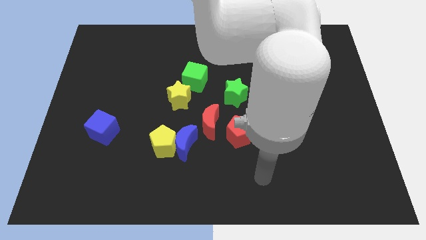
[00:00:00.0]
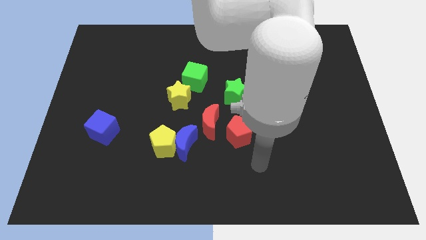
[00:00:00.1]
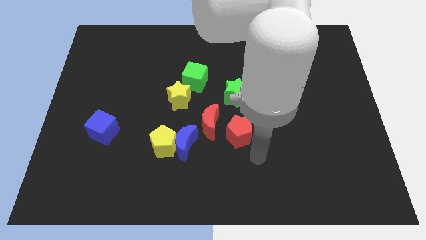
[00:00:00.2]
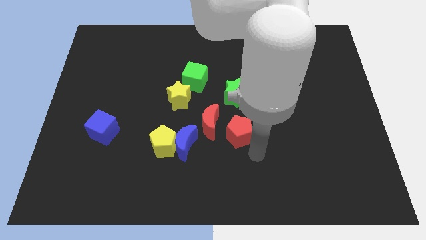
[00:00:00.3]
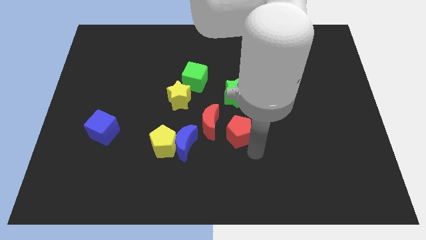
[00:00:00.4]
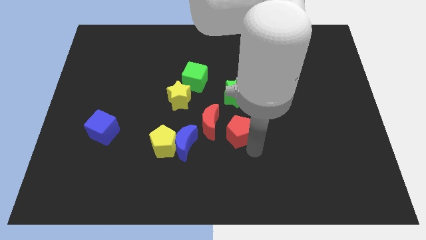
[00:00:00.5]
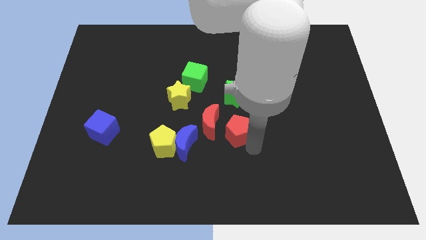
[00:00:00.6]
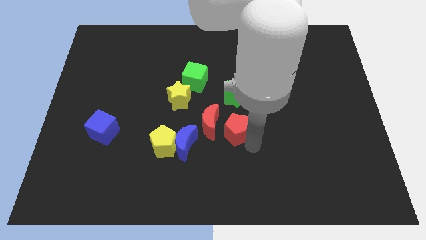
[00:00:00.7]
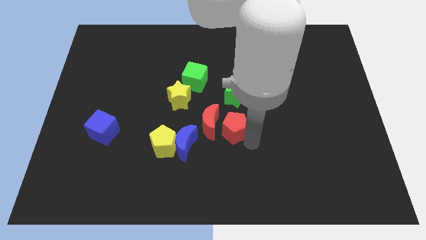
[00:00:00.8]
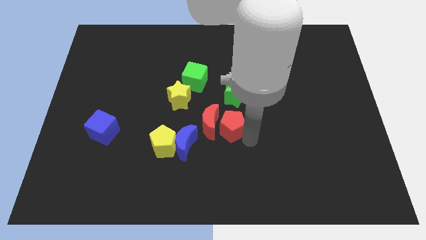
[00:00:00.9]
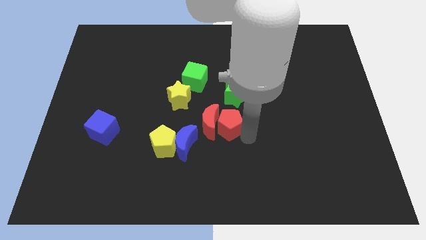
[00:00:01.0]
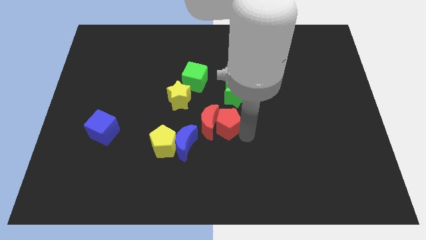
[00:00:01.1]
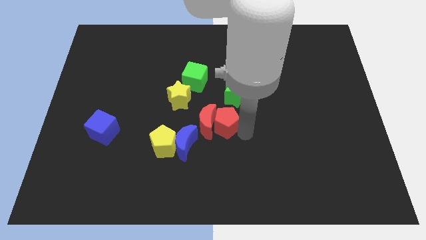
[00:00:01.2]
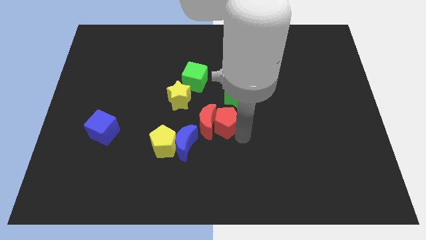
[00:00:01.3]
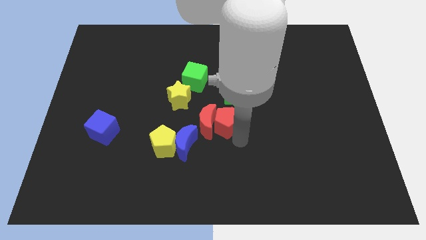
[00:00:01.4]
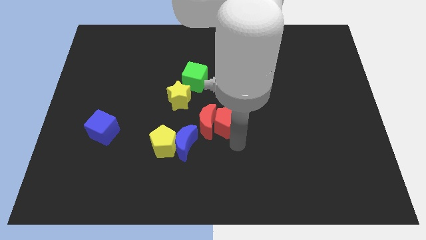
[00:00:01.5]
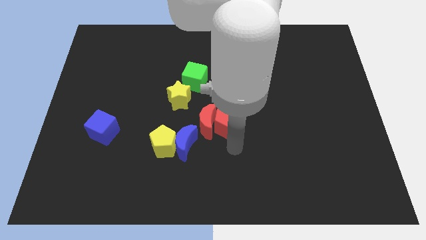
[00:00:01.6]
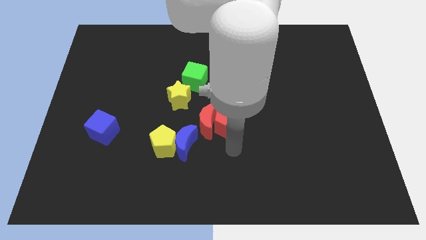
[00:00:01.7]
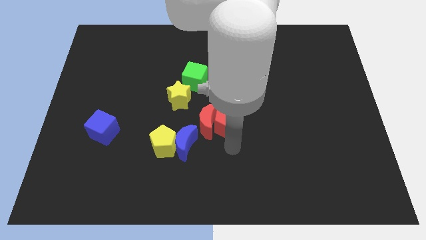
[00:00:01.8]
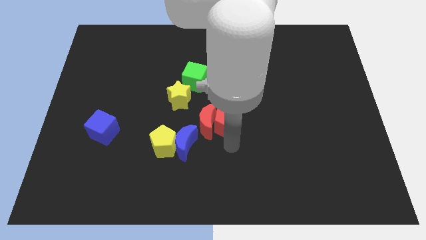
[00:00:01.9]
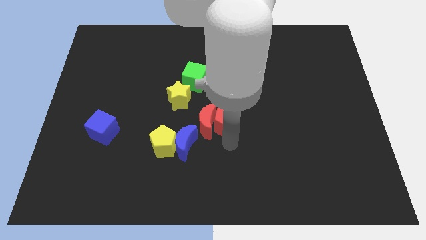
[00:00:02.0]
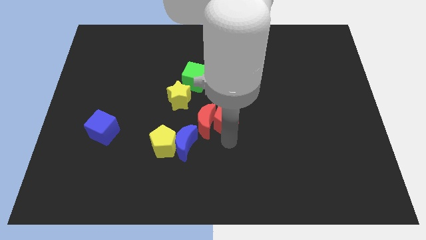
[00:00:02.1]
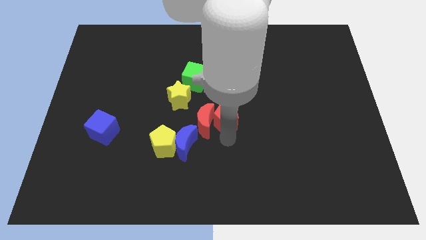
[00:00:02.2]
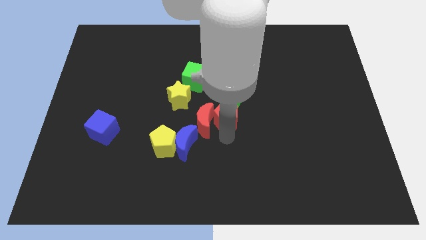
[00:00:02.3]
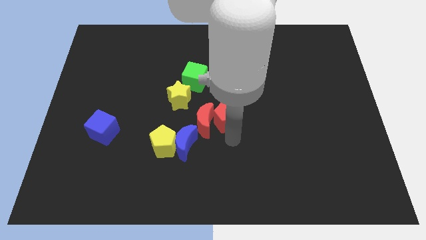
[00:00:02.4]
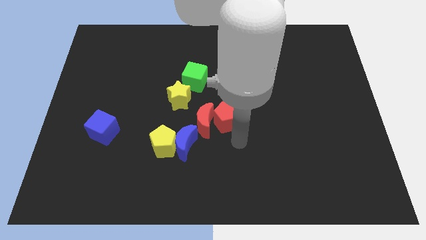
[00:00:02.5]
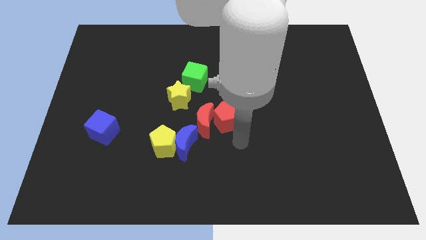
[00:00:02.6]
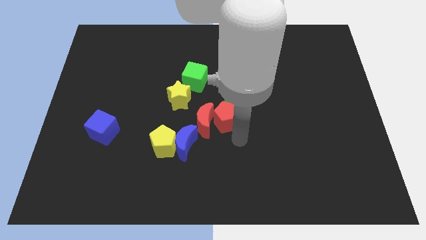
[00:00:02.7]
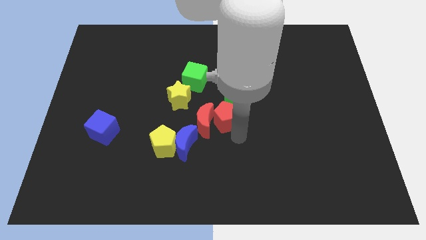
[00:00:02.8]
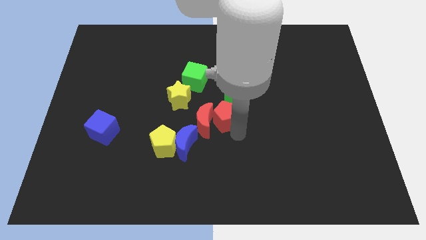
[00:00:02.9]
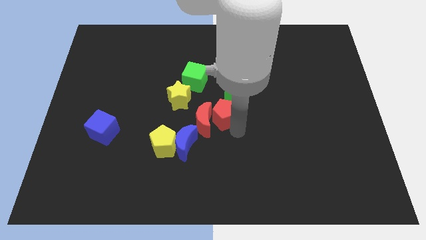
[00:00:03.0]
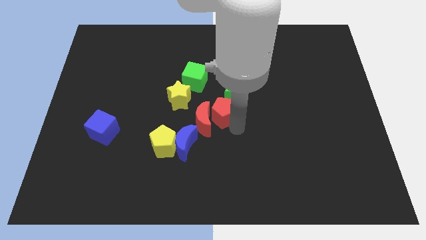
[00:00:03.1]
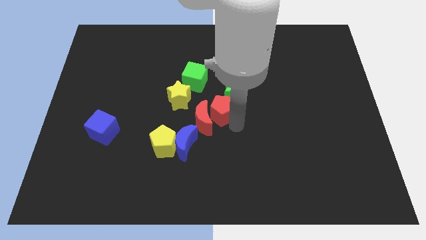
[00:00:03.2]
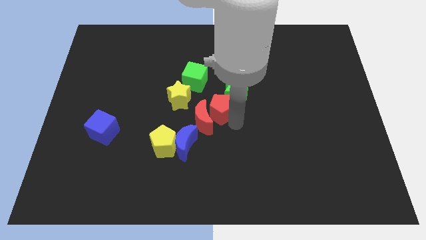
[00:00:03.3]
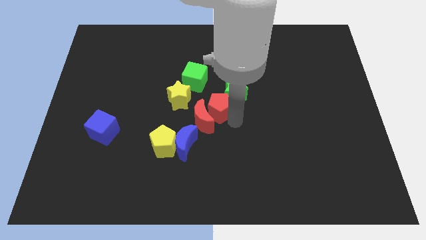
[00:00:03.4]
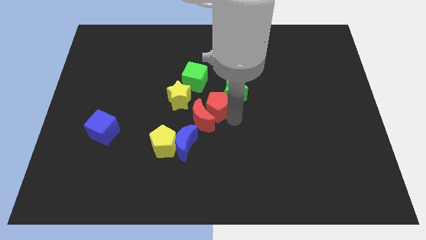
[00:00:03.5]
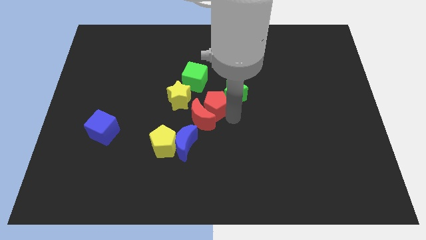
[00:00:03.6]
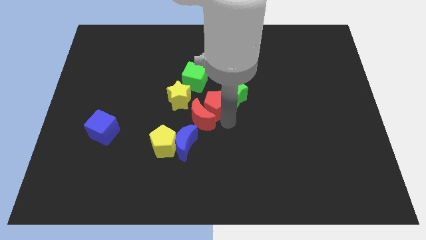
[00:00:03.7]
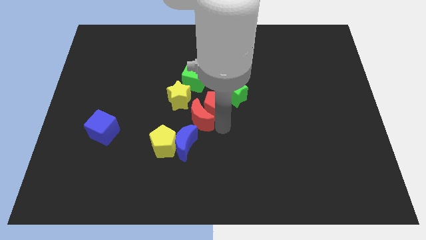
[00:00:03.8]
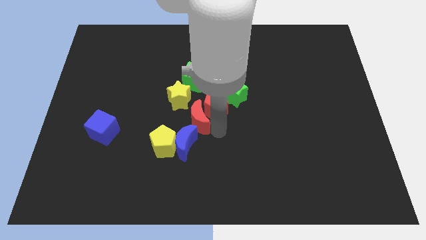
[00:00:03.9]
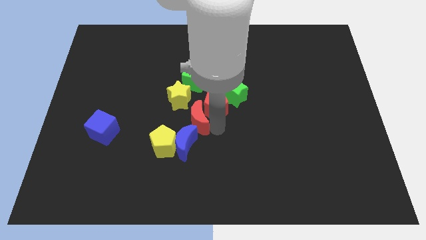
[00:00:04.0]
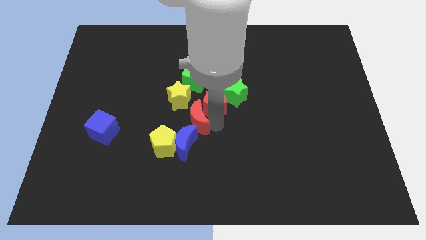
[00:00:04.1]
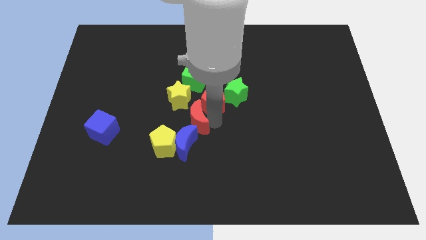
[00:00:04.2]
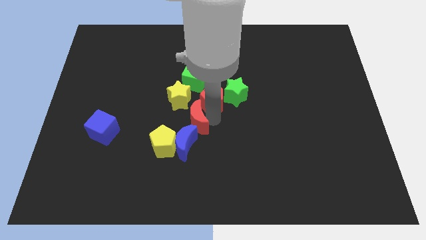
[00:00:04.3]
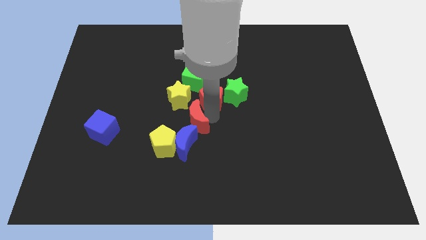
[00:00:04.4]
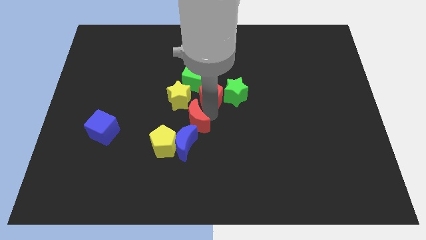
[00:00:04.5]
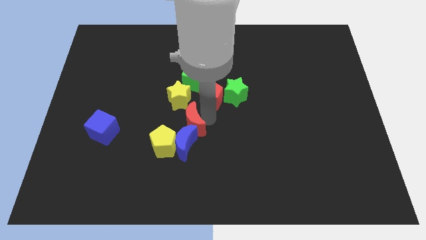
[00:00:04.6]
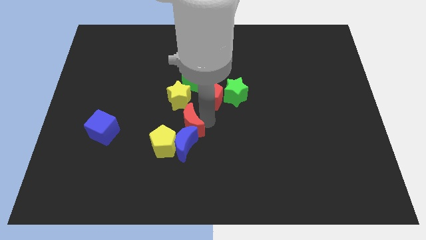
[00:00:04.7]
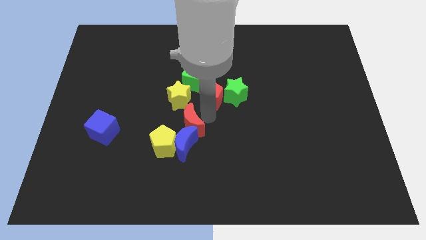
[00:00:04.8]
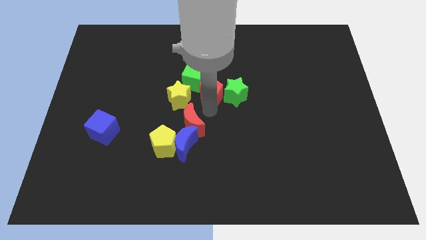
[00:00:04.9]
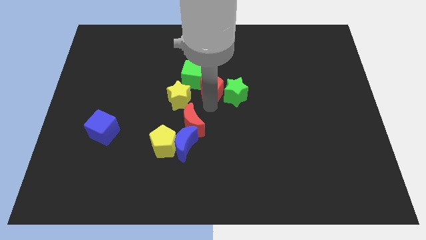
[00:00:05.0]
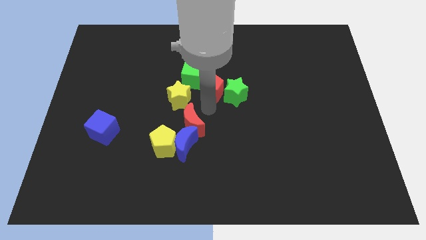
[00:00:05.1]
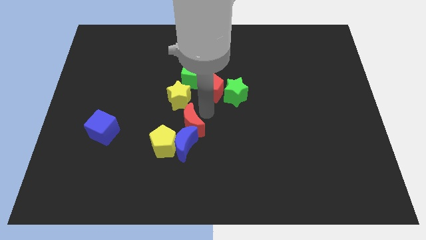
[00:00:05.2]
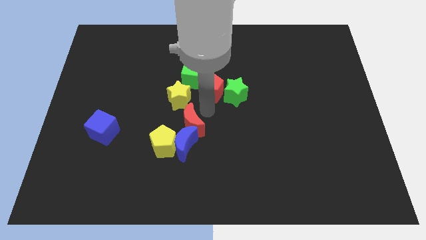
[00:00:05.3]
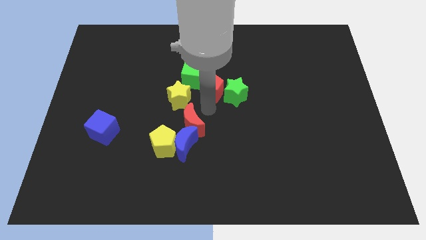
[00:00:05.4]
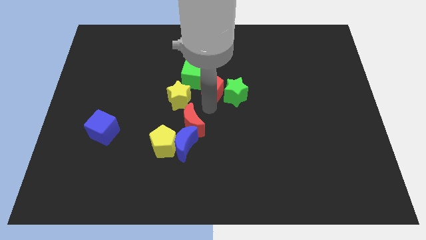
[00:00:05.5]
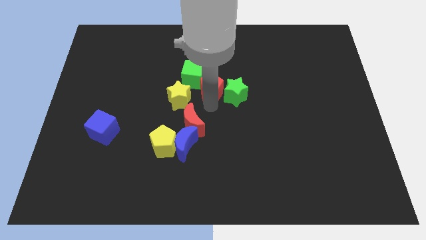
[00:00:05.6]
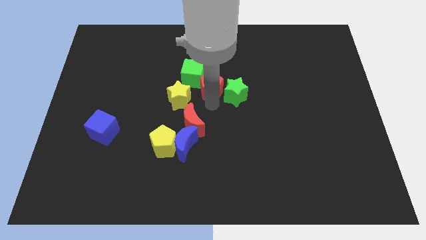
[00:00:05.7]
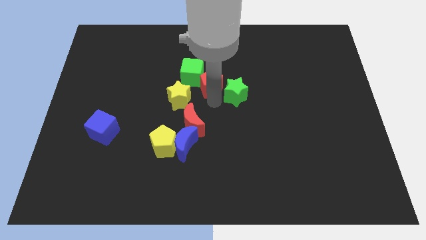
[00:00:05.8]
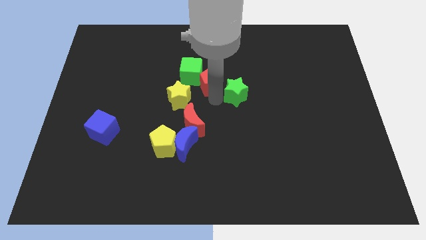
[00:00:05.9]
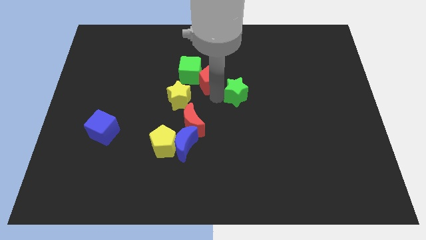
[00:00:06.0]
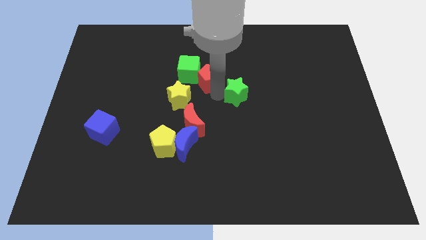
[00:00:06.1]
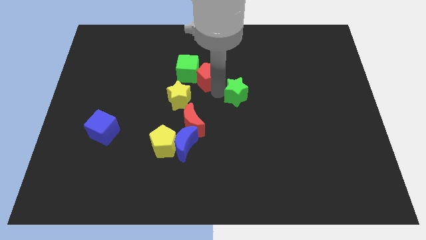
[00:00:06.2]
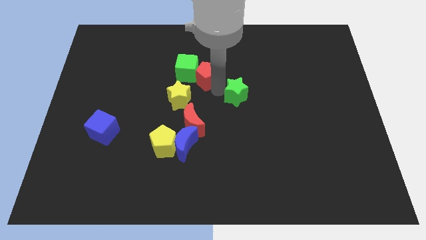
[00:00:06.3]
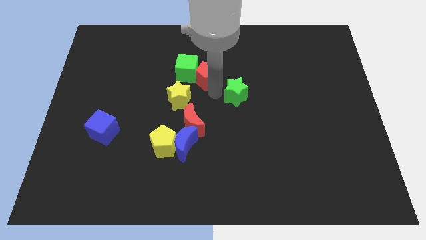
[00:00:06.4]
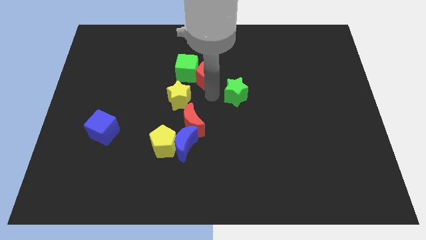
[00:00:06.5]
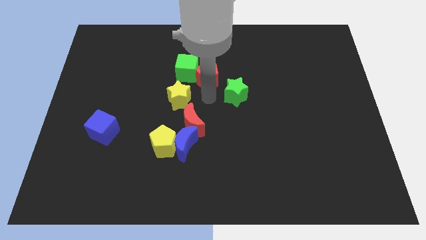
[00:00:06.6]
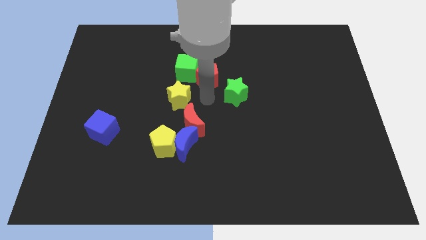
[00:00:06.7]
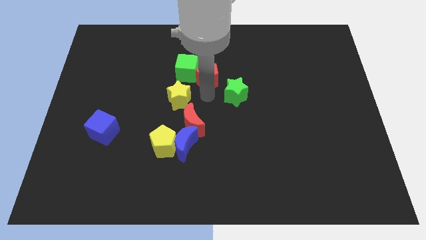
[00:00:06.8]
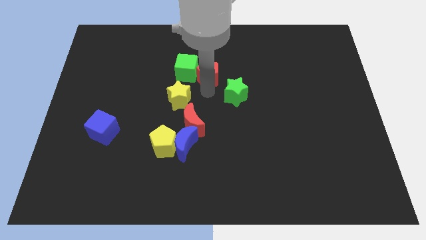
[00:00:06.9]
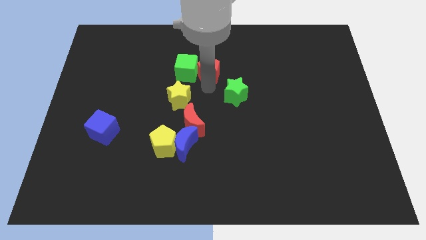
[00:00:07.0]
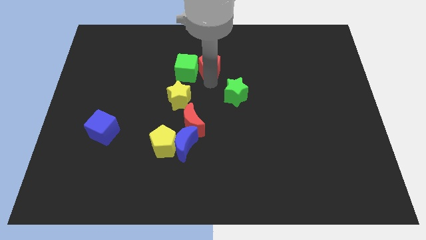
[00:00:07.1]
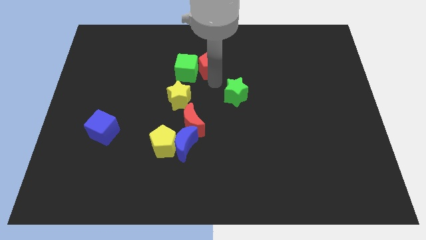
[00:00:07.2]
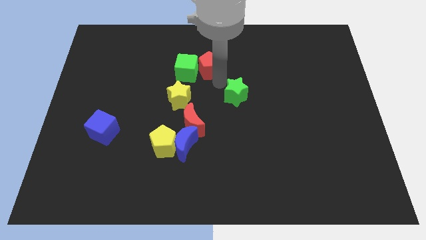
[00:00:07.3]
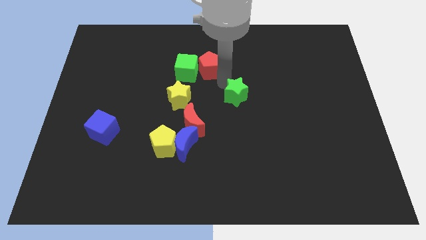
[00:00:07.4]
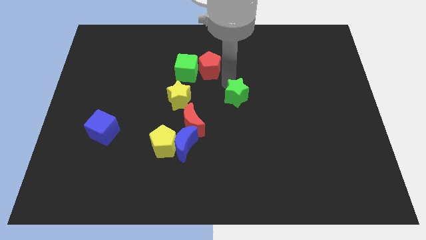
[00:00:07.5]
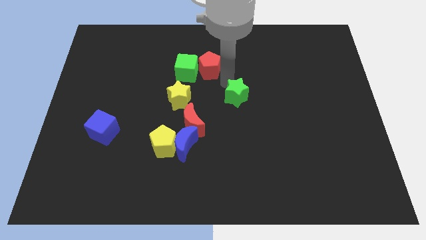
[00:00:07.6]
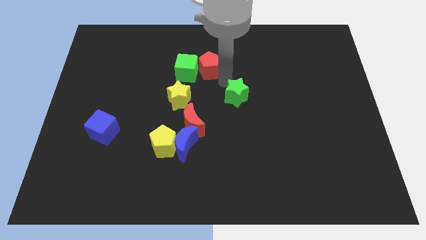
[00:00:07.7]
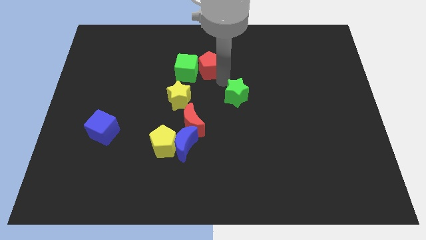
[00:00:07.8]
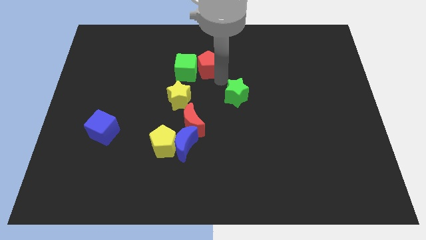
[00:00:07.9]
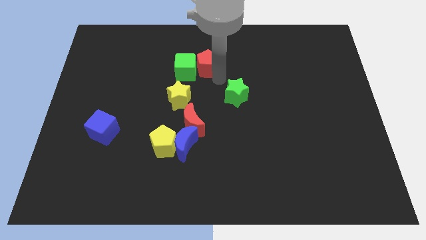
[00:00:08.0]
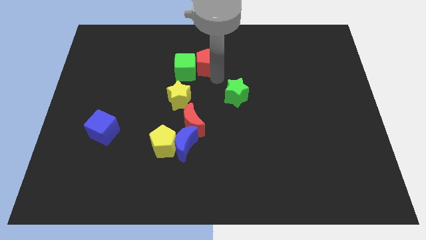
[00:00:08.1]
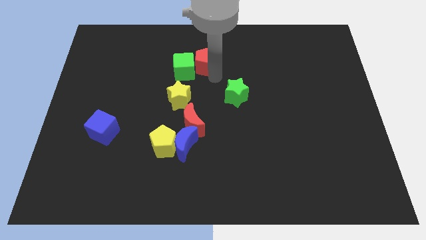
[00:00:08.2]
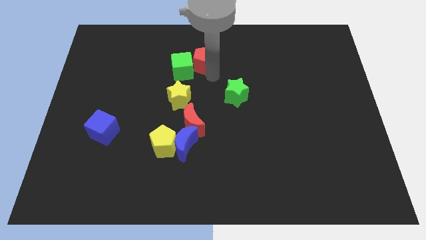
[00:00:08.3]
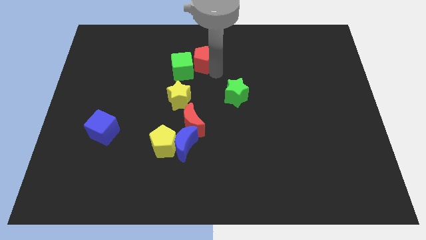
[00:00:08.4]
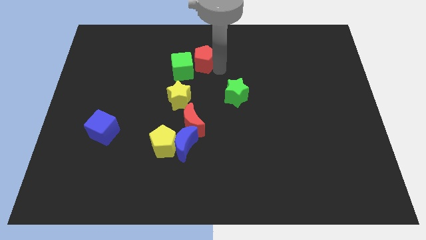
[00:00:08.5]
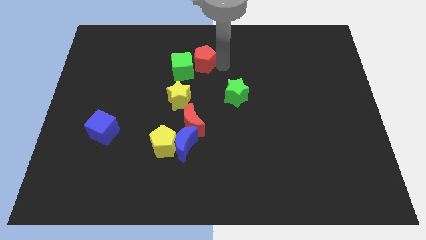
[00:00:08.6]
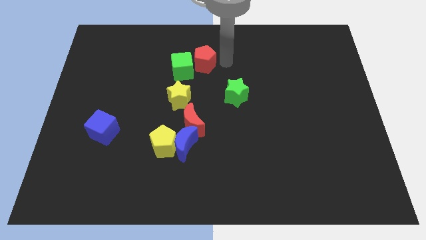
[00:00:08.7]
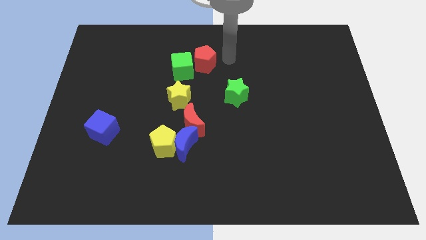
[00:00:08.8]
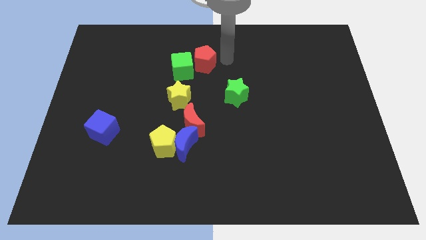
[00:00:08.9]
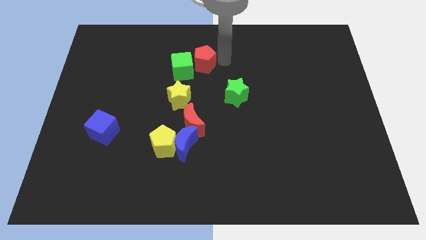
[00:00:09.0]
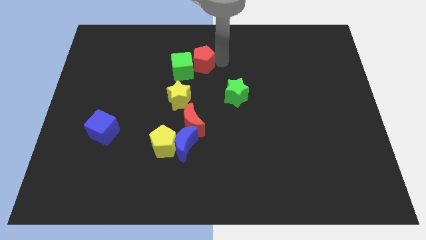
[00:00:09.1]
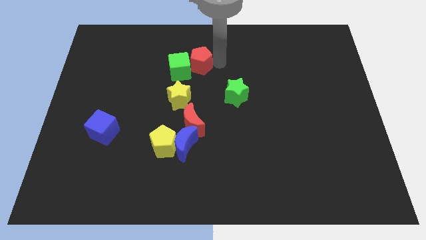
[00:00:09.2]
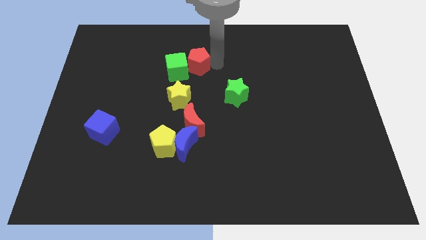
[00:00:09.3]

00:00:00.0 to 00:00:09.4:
slide the red pentagon to the top side of the yellow star
